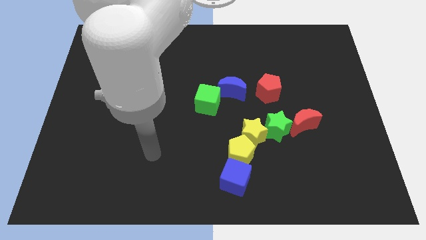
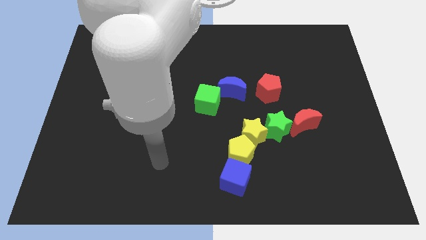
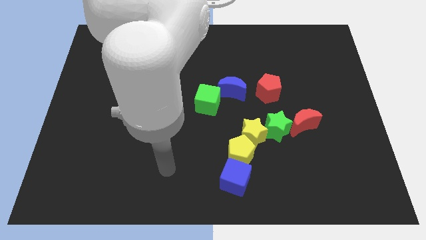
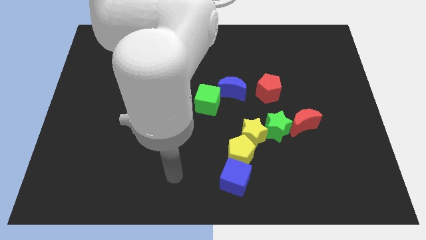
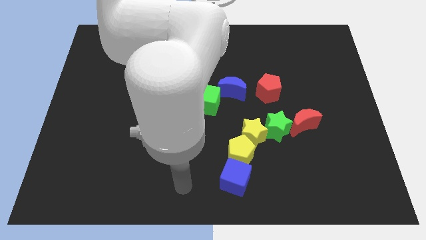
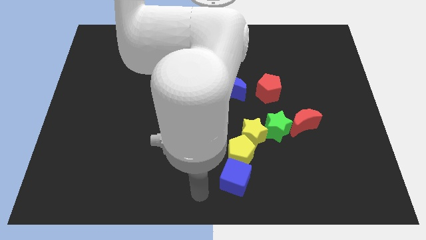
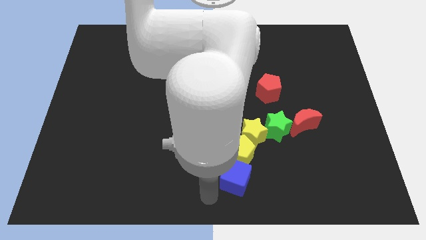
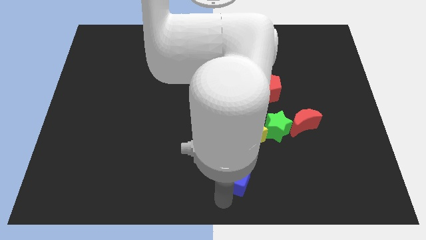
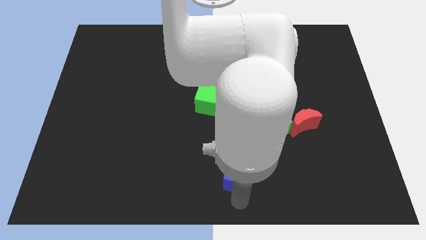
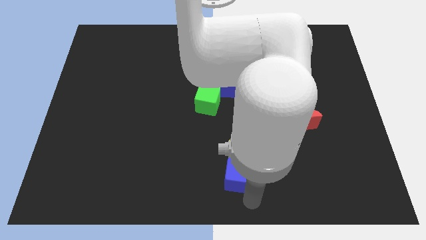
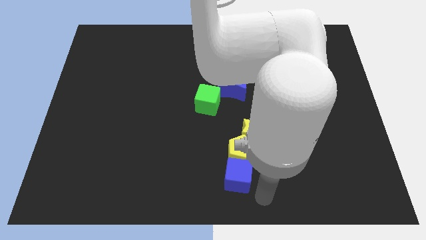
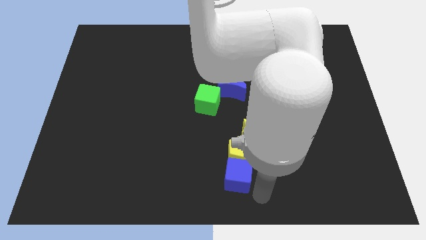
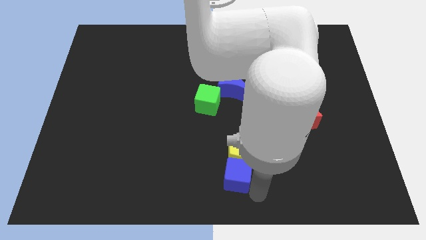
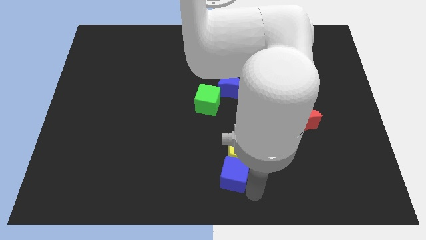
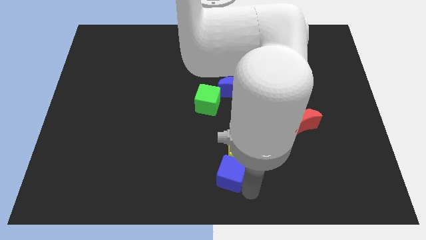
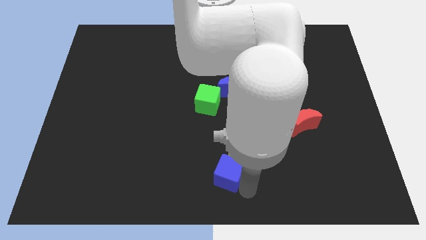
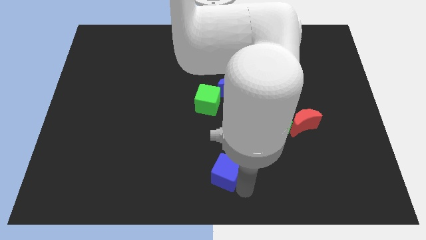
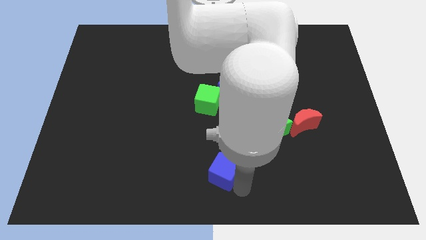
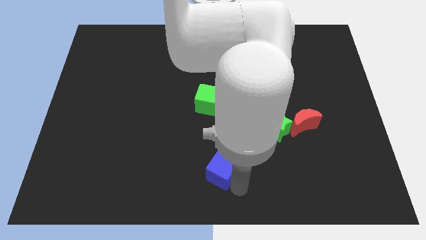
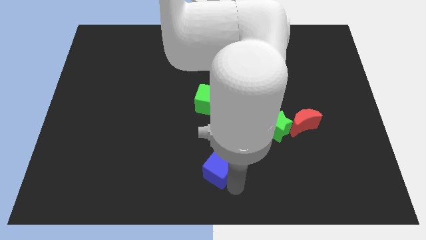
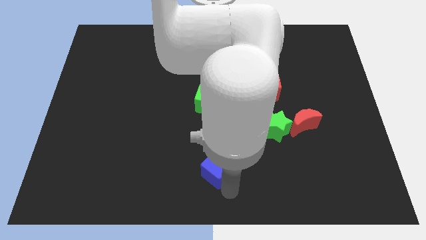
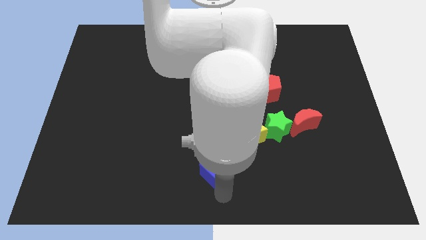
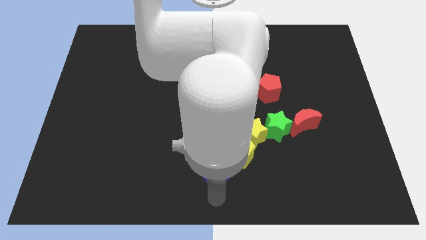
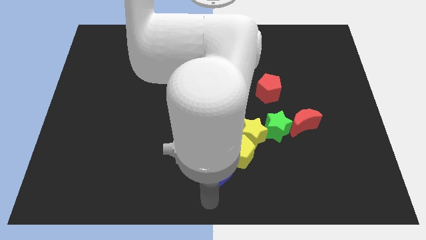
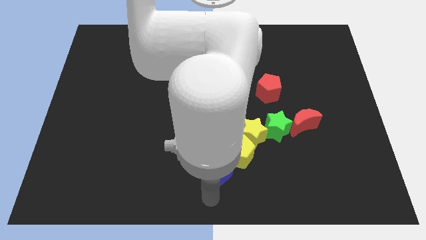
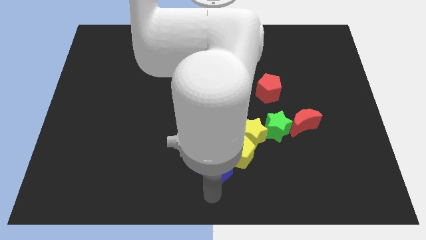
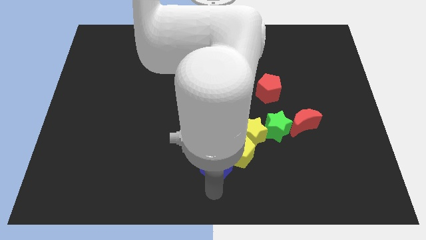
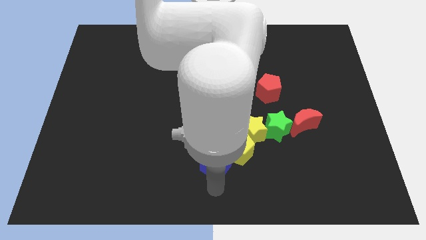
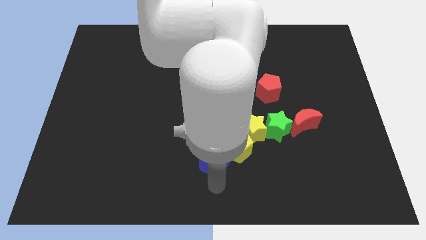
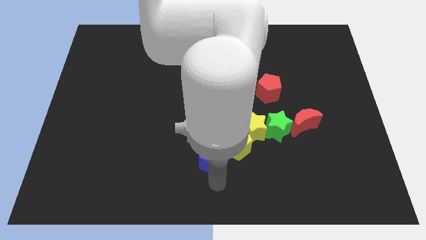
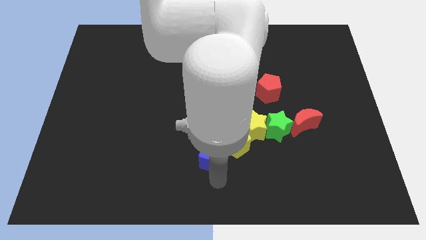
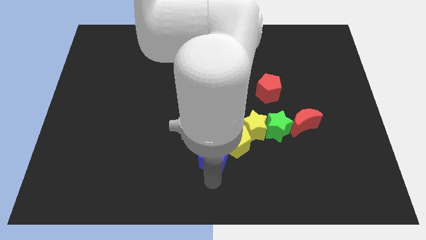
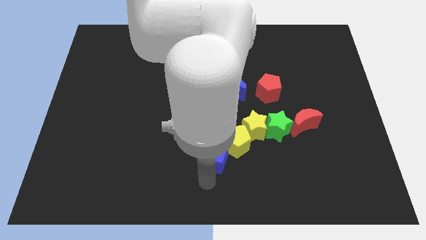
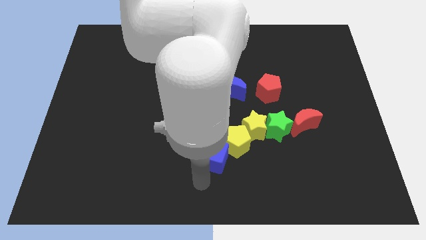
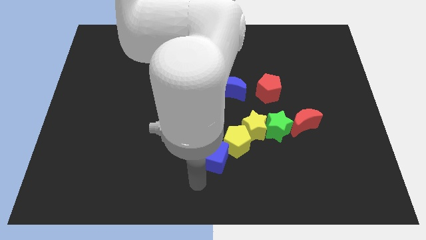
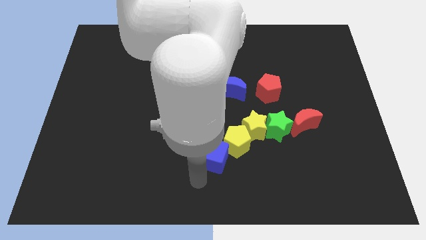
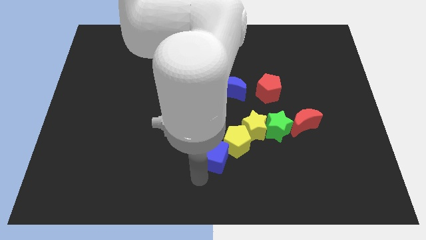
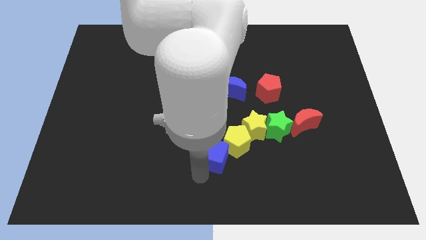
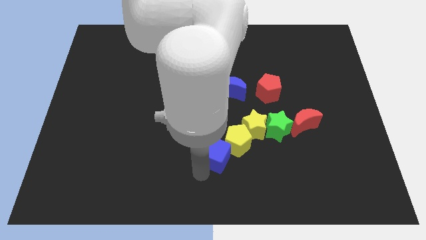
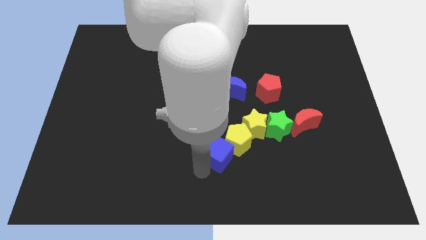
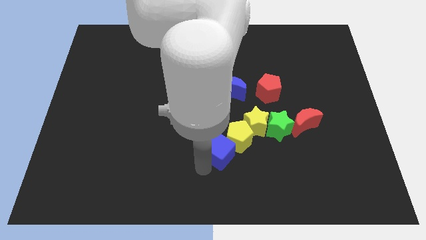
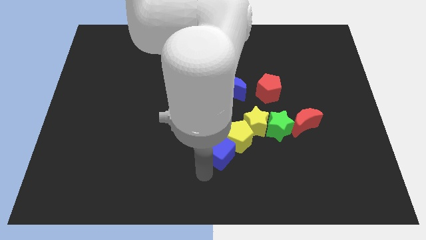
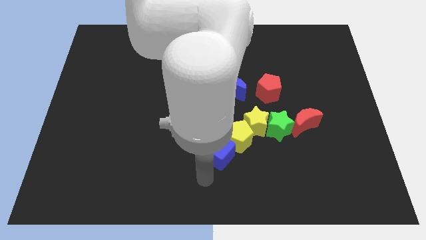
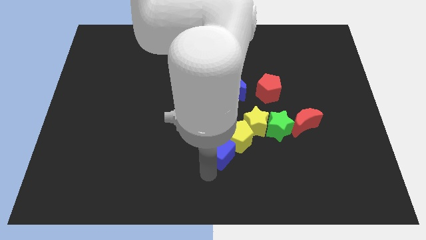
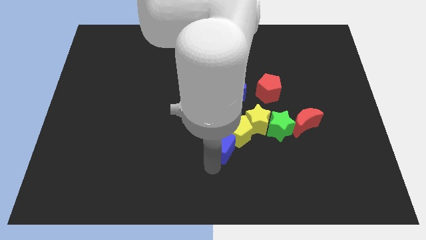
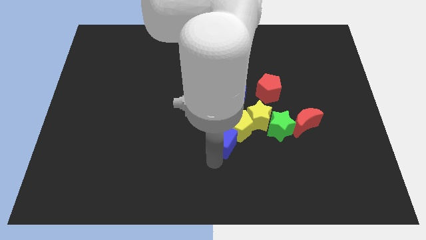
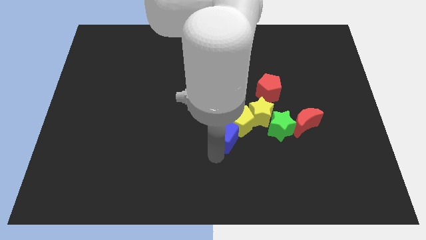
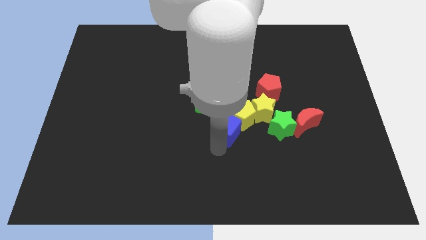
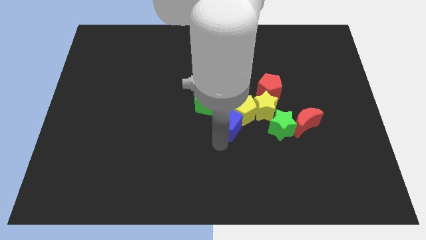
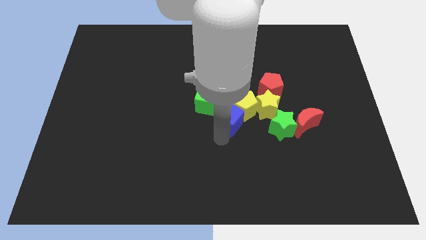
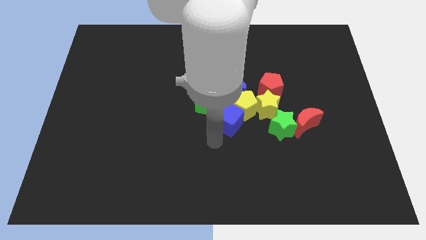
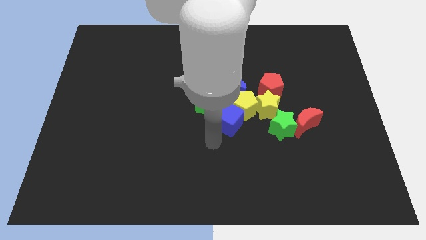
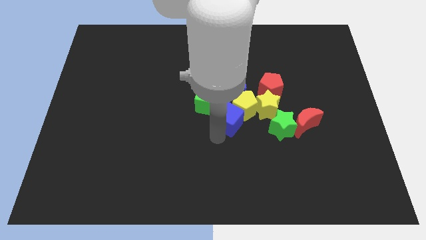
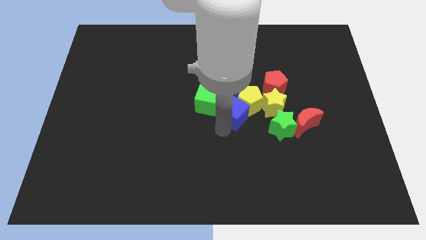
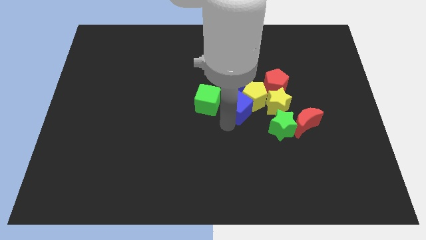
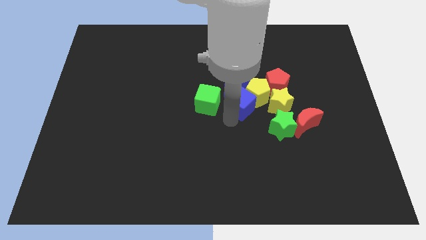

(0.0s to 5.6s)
slide the blue cube close to the blue moon

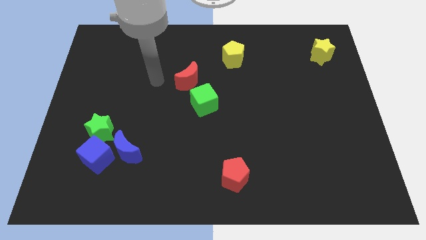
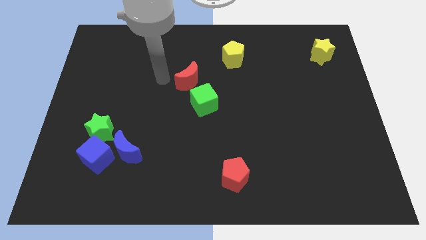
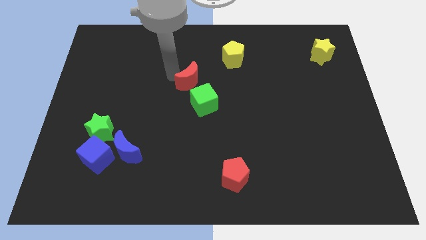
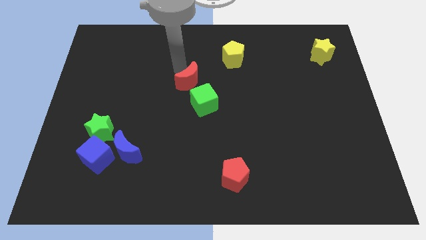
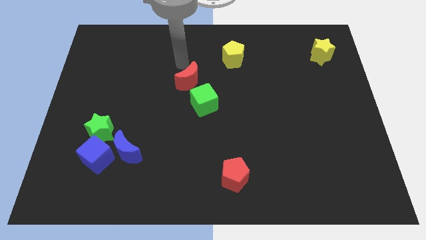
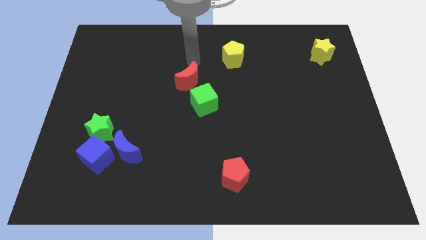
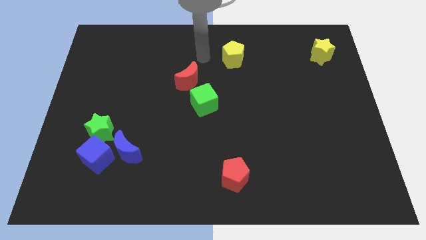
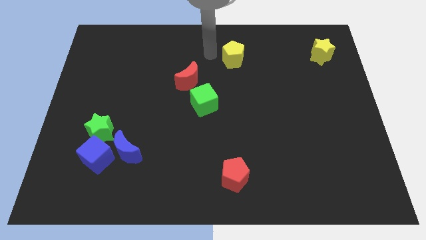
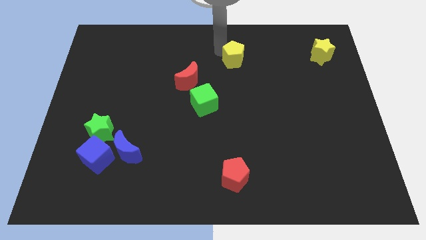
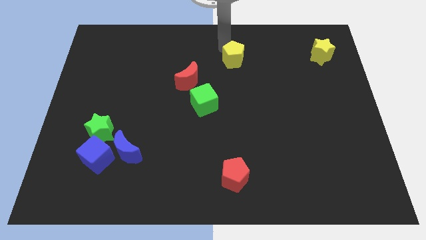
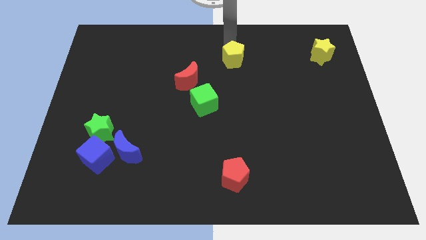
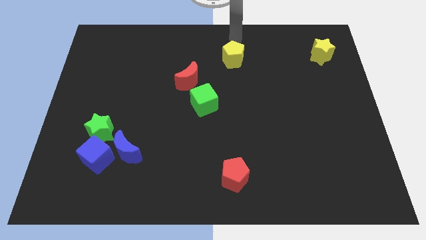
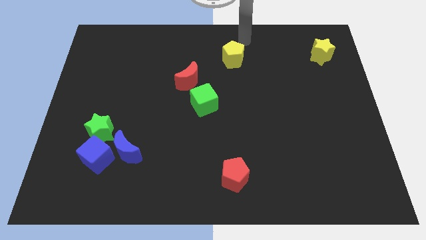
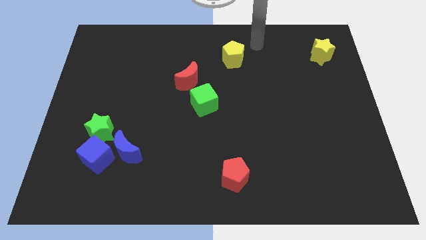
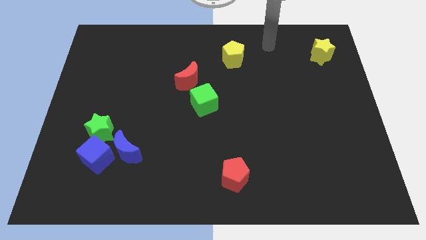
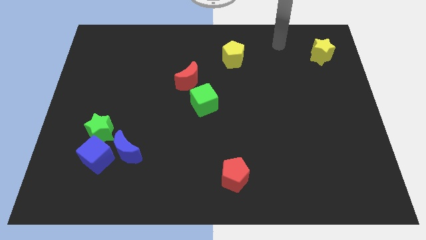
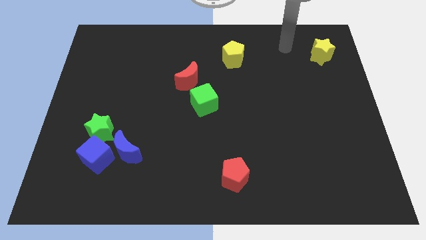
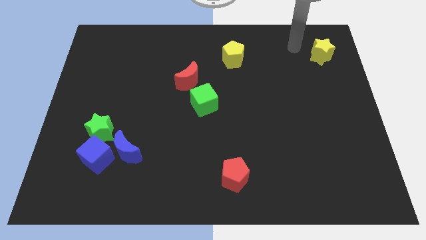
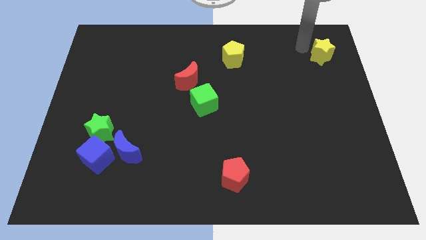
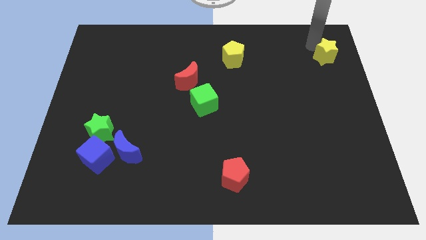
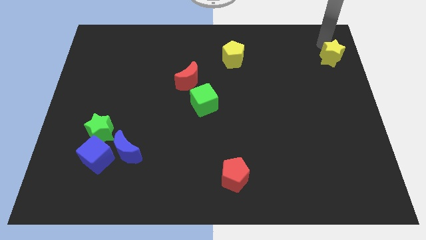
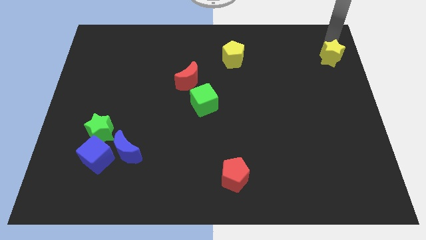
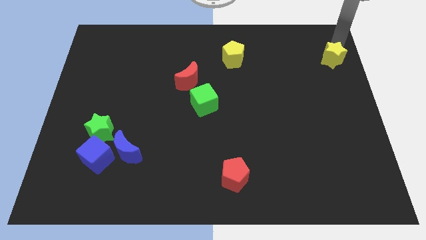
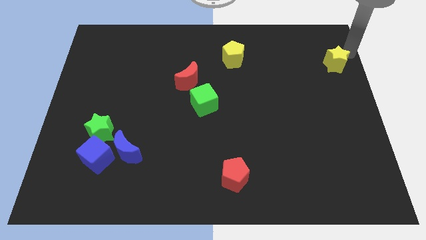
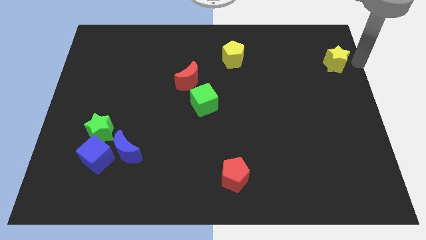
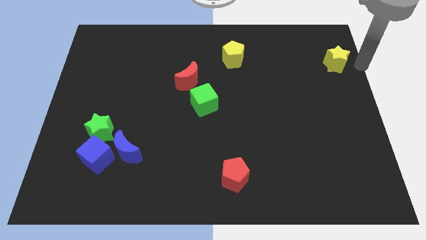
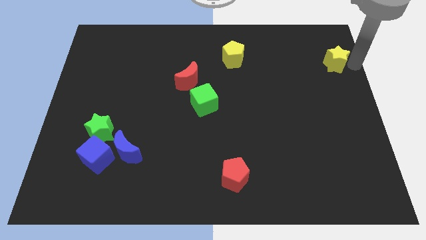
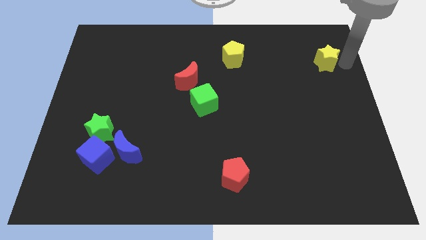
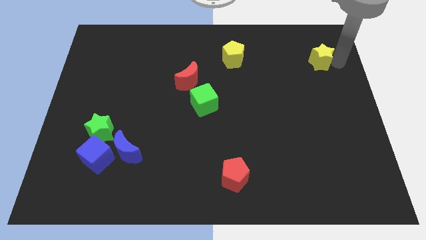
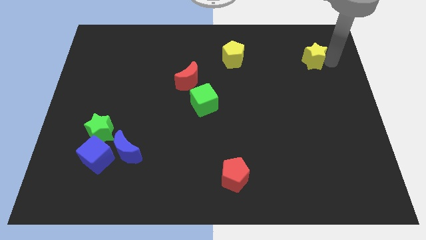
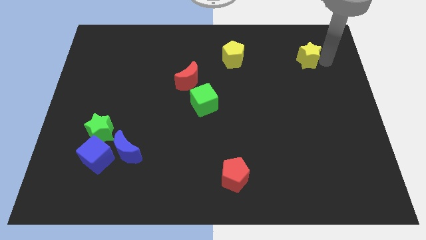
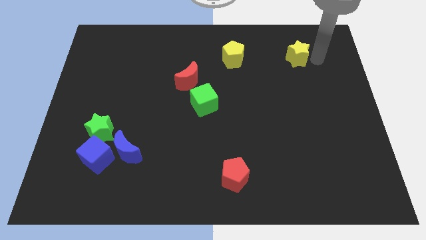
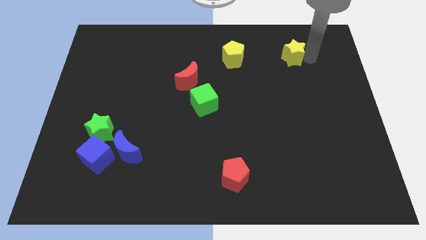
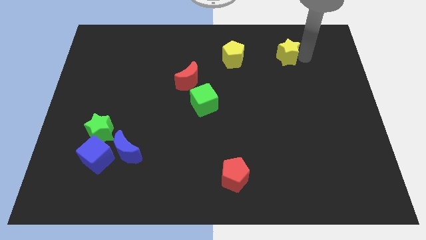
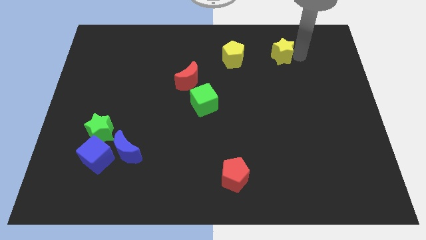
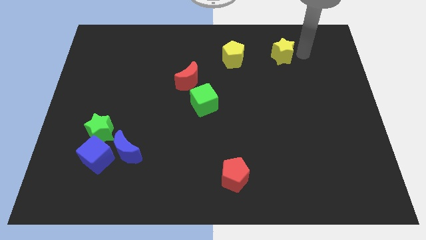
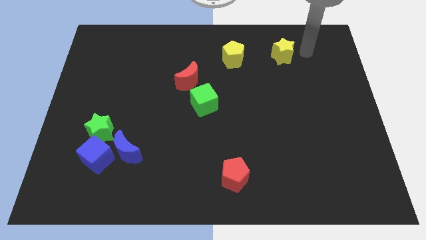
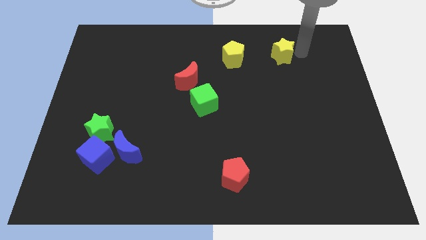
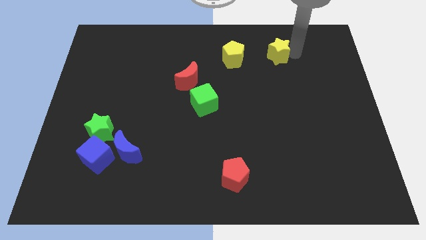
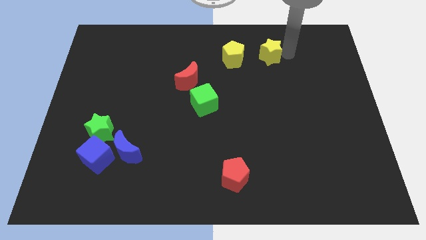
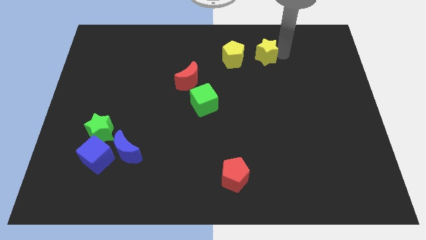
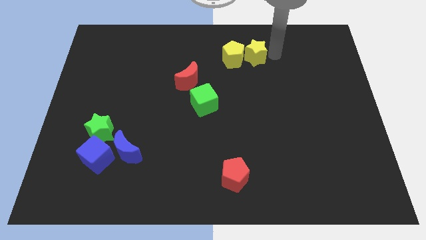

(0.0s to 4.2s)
put the yellow star towards the yellow pentagon
